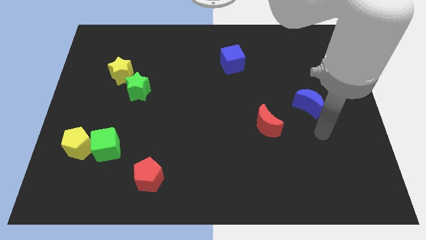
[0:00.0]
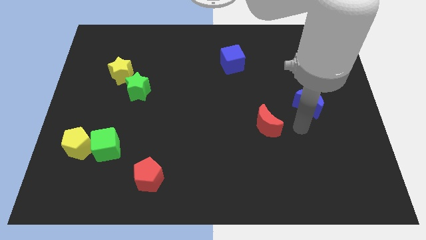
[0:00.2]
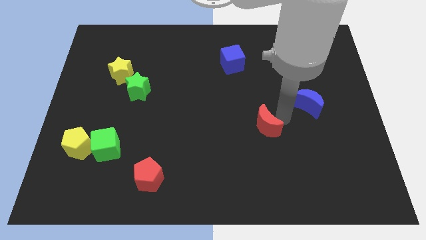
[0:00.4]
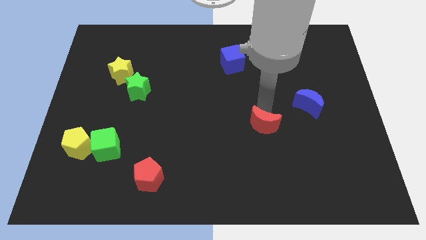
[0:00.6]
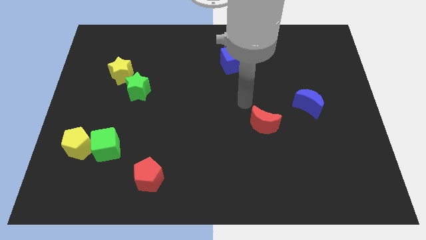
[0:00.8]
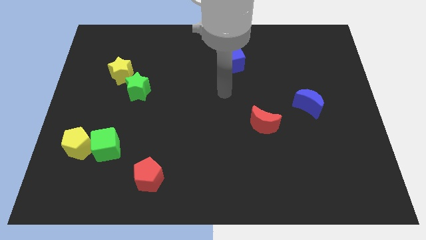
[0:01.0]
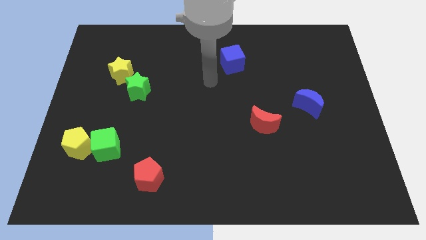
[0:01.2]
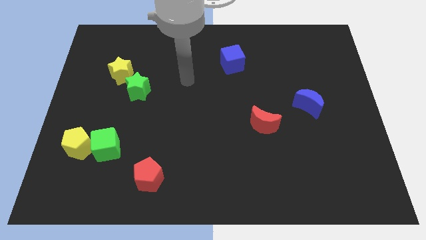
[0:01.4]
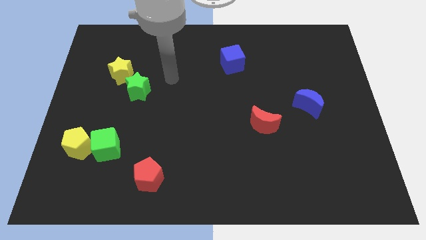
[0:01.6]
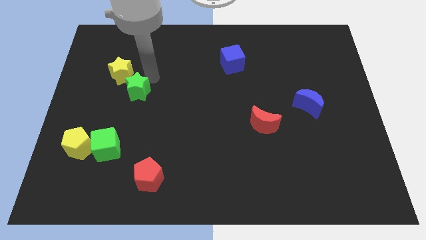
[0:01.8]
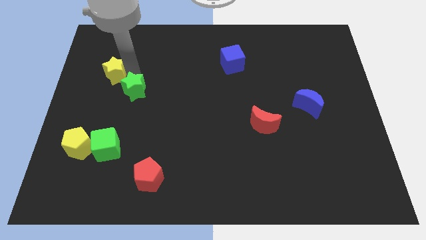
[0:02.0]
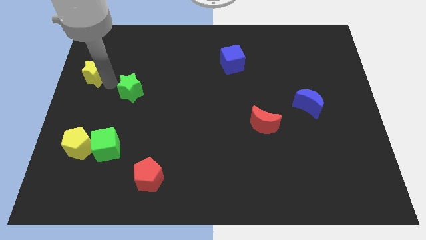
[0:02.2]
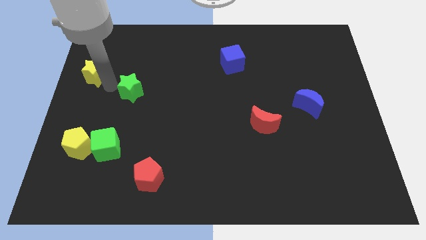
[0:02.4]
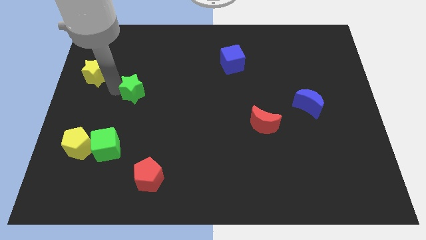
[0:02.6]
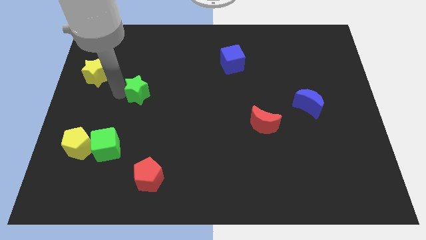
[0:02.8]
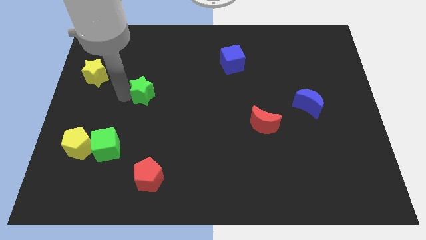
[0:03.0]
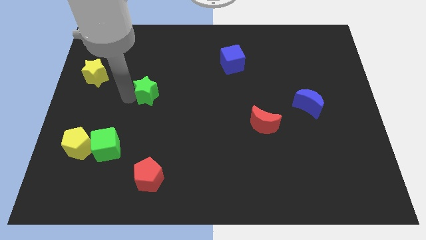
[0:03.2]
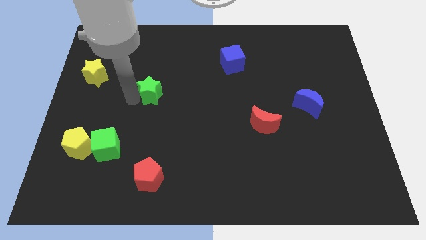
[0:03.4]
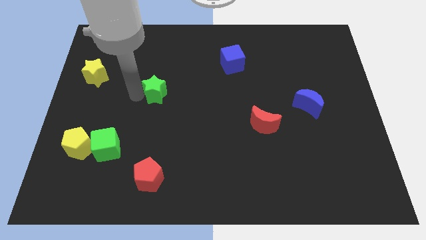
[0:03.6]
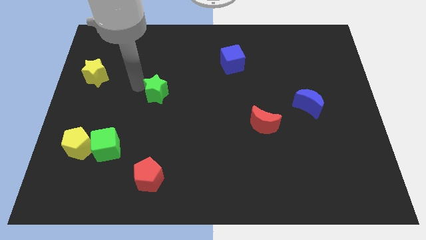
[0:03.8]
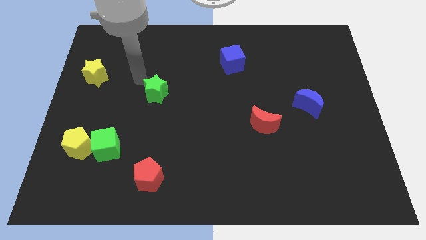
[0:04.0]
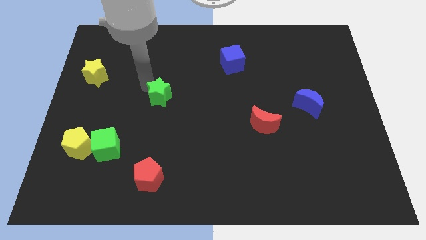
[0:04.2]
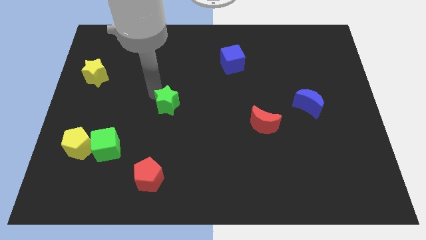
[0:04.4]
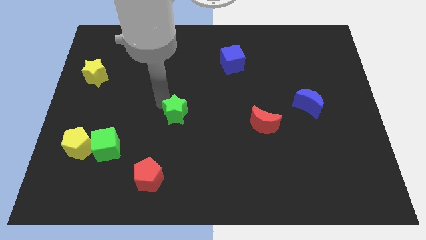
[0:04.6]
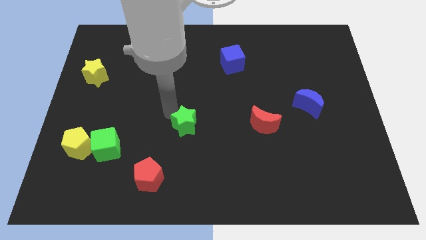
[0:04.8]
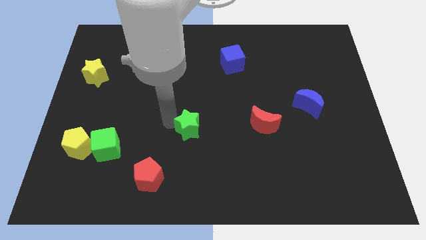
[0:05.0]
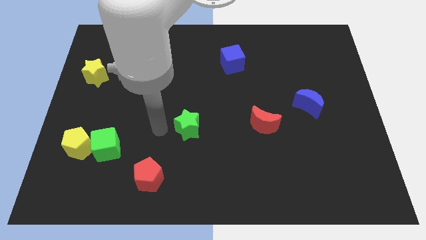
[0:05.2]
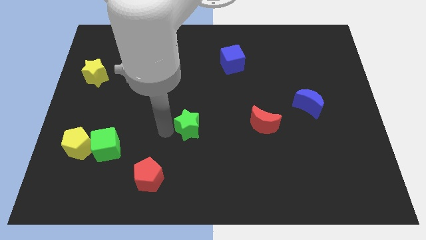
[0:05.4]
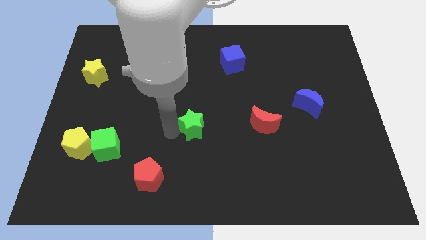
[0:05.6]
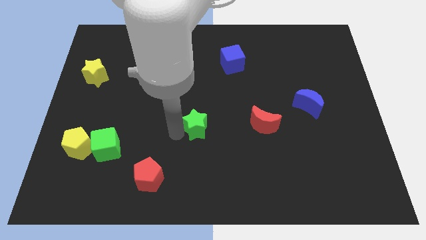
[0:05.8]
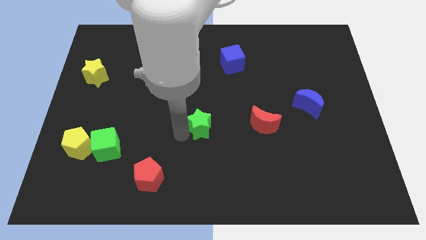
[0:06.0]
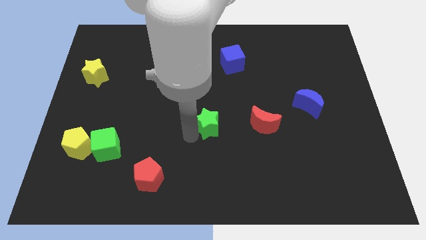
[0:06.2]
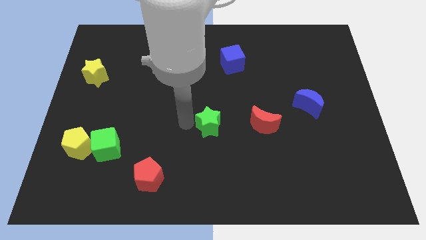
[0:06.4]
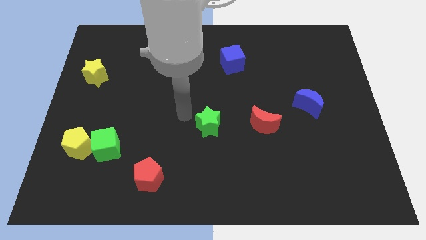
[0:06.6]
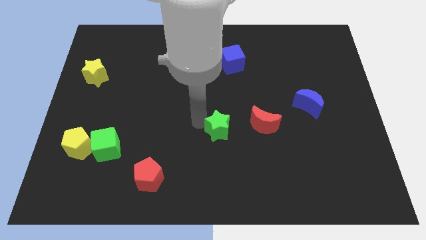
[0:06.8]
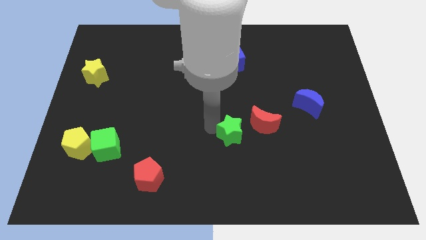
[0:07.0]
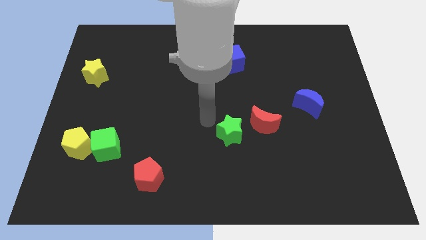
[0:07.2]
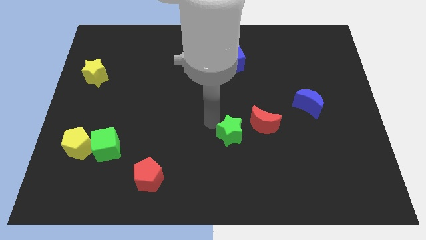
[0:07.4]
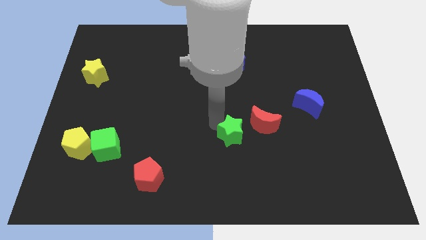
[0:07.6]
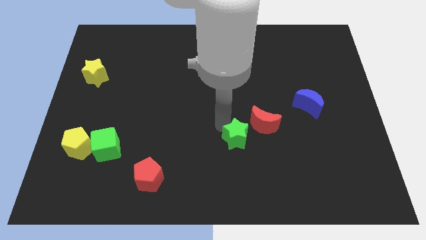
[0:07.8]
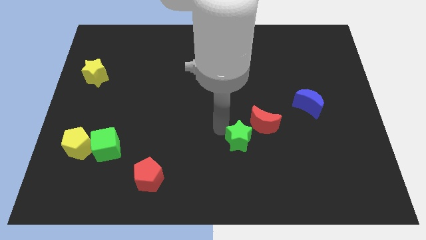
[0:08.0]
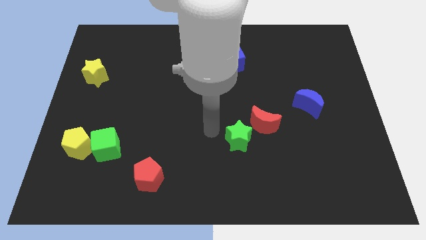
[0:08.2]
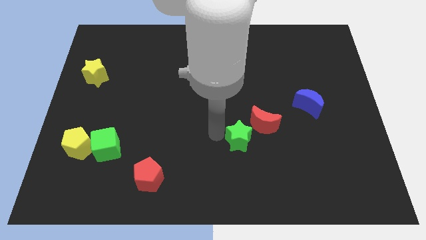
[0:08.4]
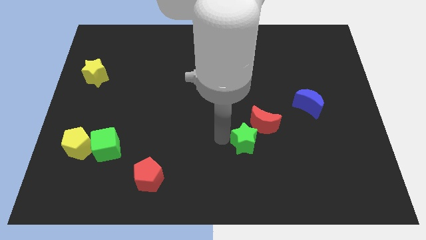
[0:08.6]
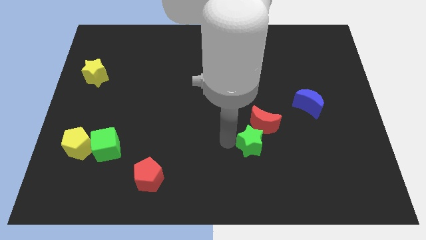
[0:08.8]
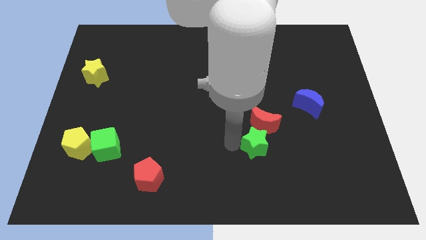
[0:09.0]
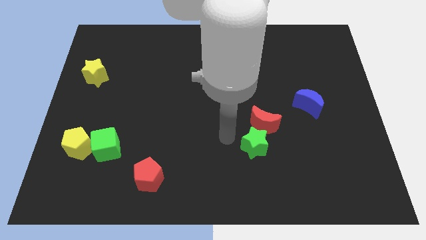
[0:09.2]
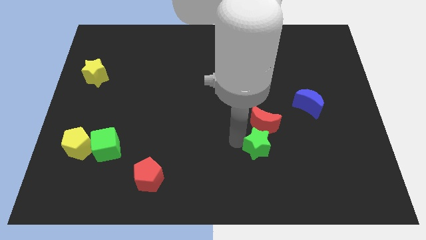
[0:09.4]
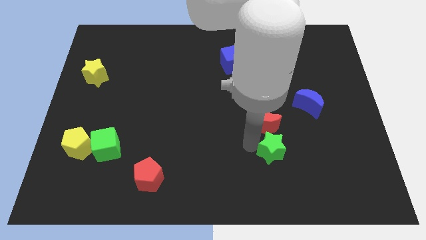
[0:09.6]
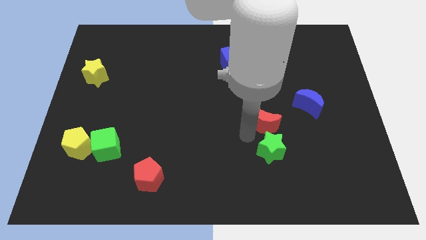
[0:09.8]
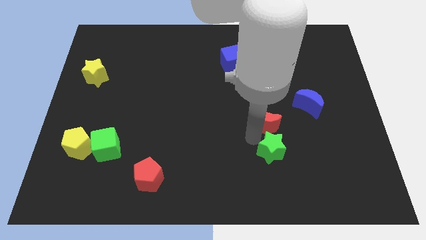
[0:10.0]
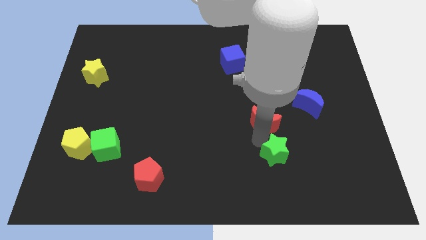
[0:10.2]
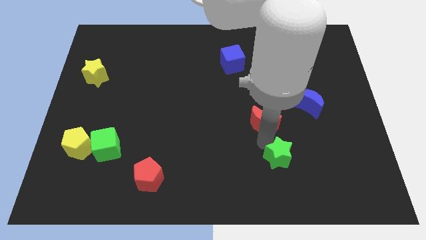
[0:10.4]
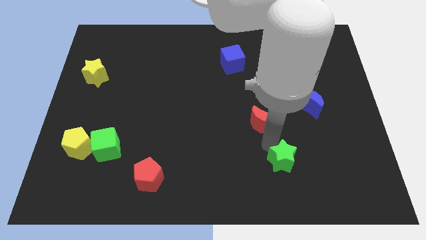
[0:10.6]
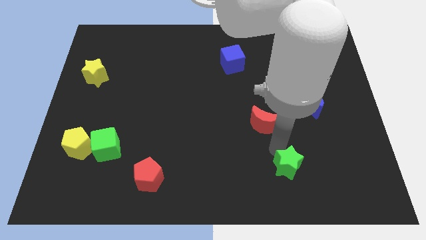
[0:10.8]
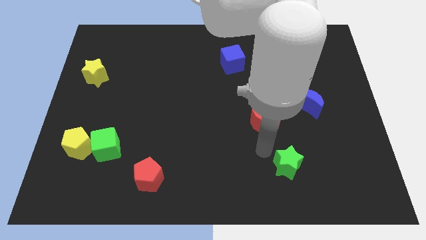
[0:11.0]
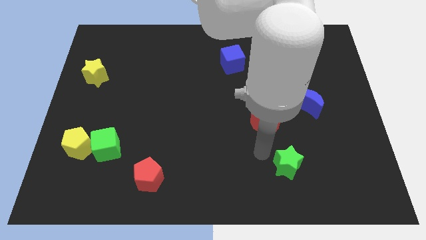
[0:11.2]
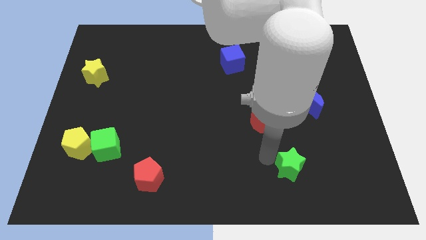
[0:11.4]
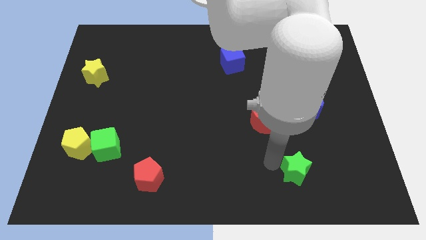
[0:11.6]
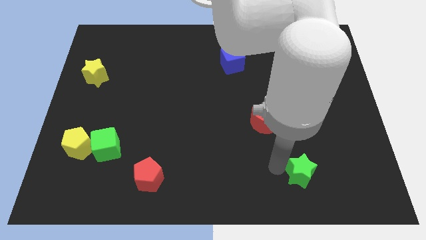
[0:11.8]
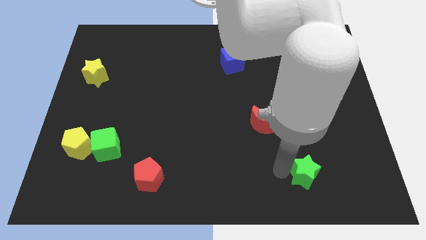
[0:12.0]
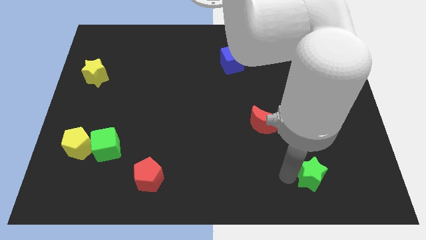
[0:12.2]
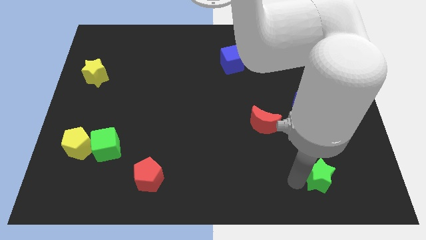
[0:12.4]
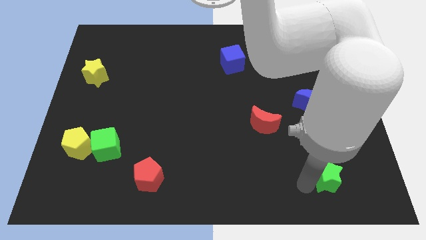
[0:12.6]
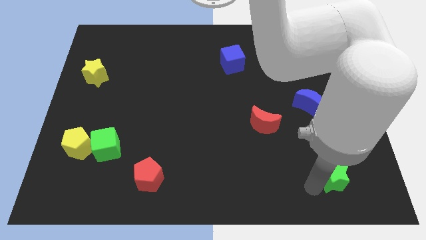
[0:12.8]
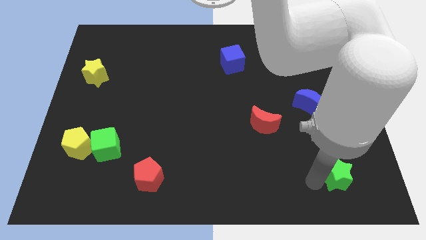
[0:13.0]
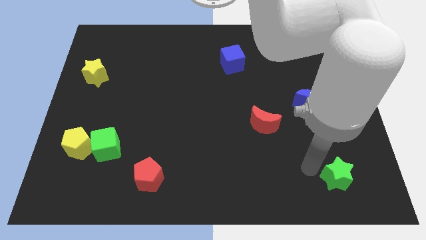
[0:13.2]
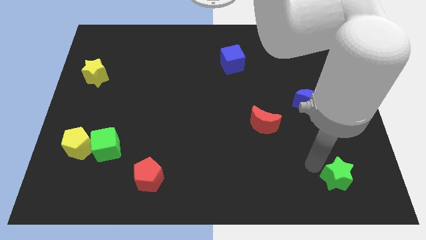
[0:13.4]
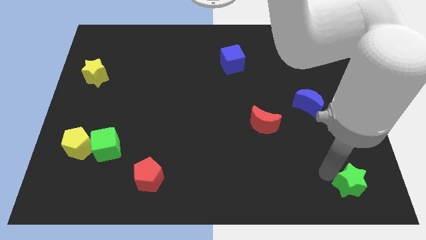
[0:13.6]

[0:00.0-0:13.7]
slide the green star to the lower right corner

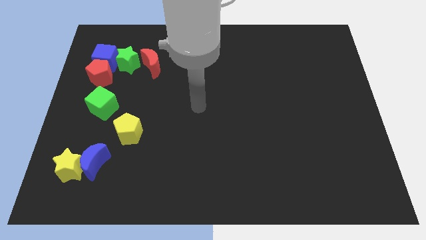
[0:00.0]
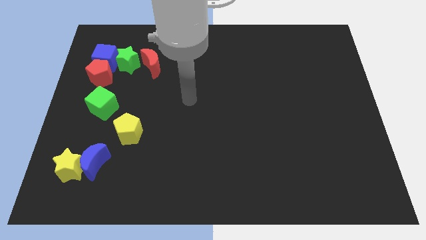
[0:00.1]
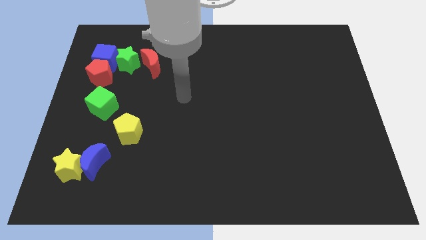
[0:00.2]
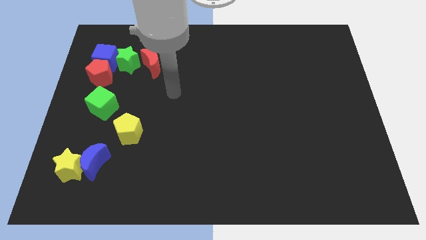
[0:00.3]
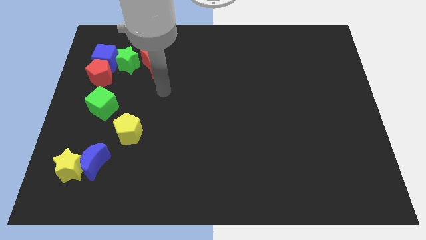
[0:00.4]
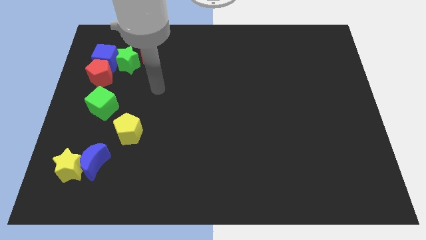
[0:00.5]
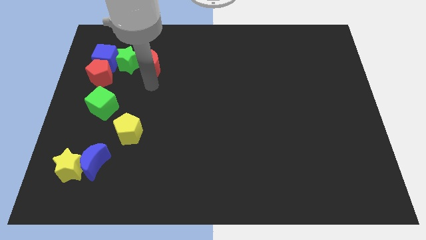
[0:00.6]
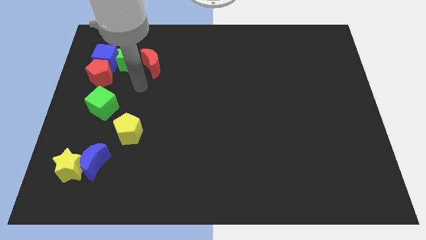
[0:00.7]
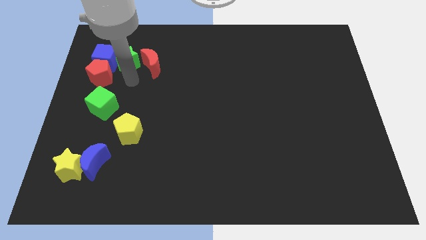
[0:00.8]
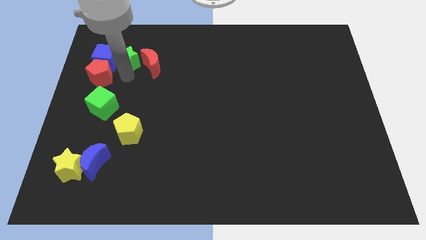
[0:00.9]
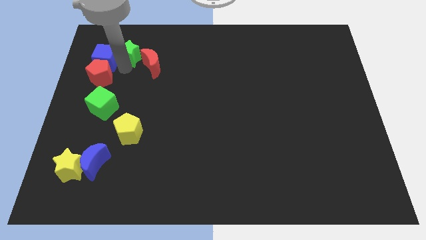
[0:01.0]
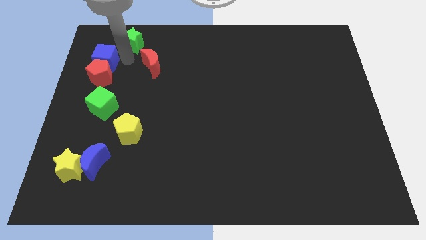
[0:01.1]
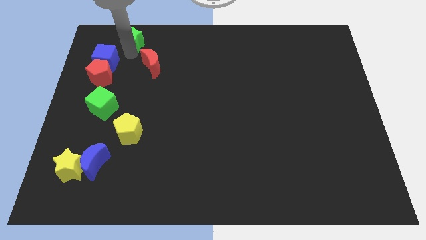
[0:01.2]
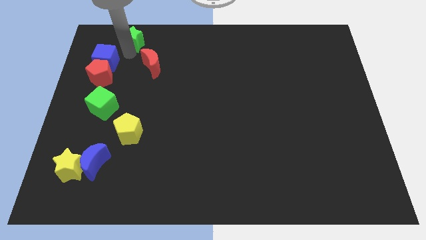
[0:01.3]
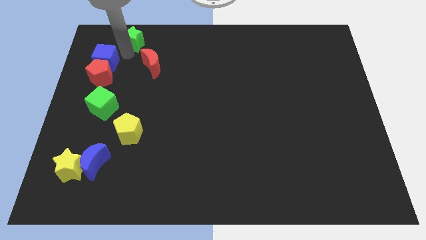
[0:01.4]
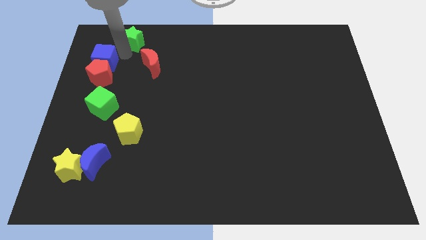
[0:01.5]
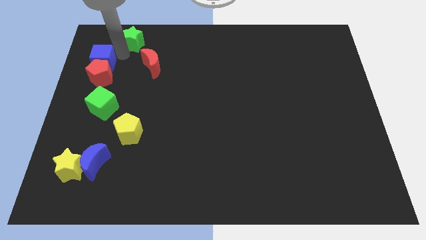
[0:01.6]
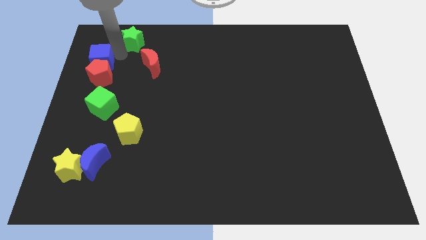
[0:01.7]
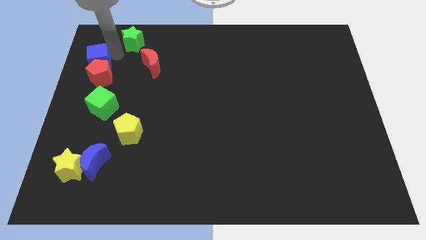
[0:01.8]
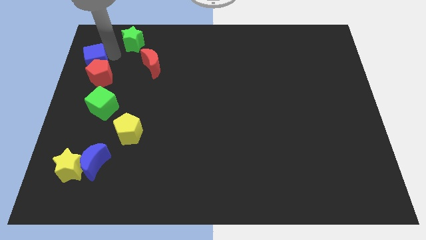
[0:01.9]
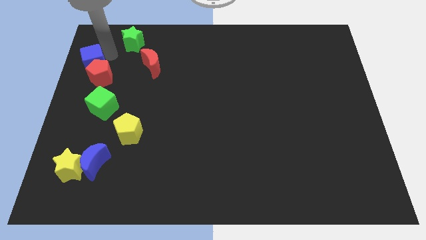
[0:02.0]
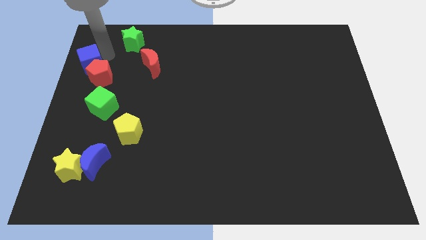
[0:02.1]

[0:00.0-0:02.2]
move the blue cube to the left side of the board
